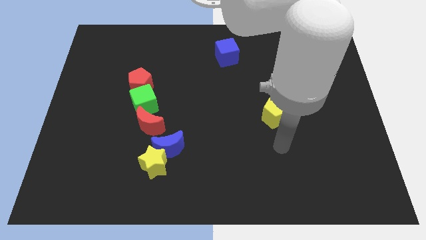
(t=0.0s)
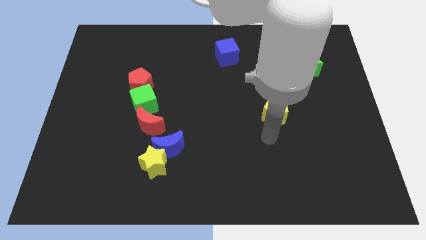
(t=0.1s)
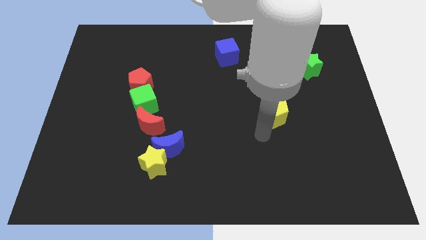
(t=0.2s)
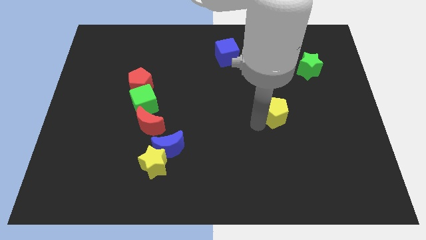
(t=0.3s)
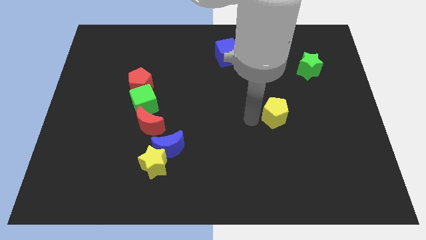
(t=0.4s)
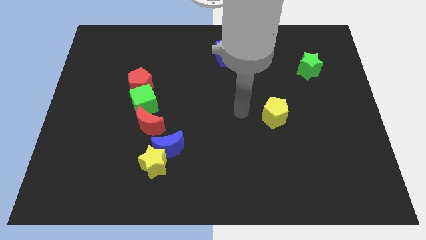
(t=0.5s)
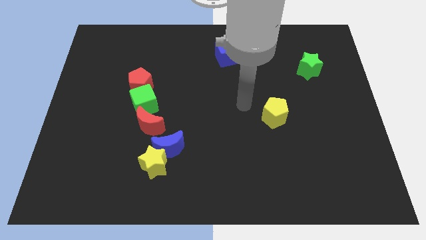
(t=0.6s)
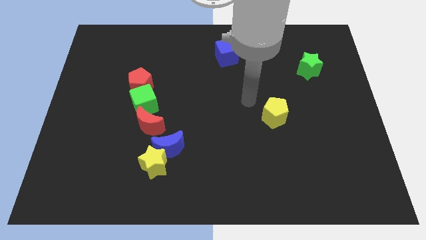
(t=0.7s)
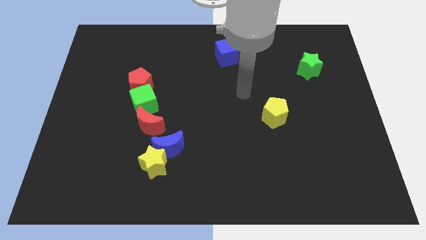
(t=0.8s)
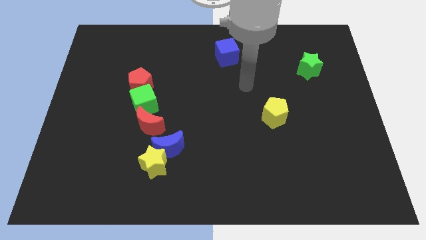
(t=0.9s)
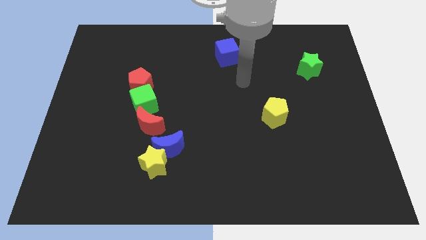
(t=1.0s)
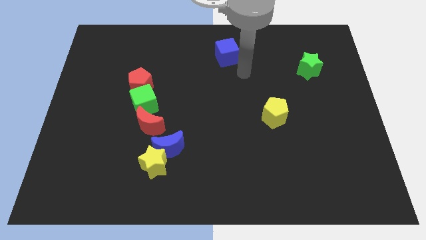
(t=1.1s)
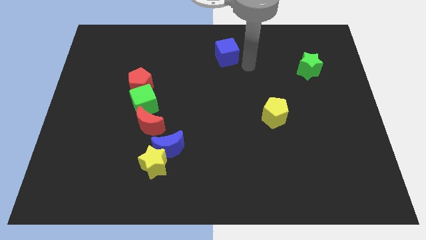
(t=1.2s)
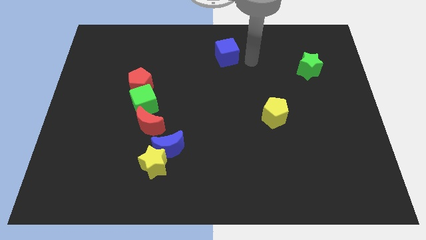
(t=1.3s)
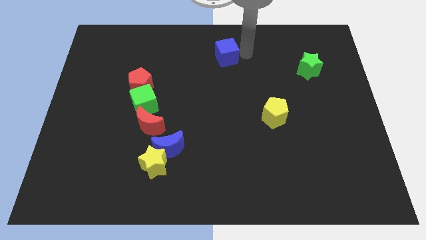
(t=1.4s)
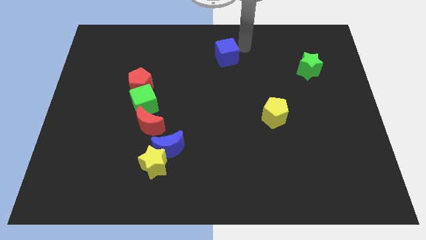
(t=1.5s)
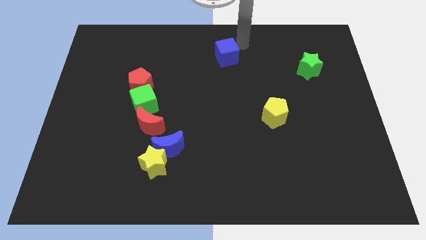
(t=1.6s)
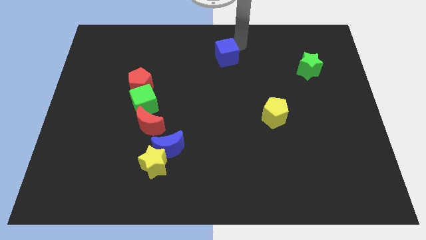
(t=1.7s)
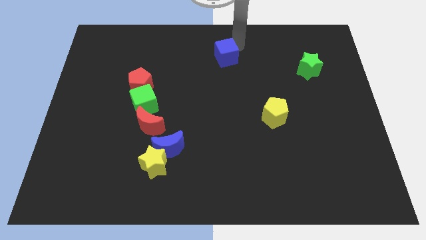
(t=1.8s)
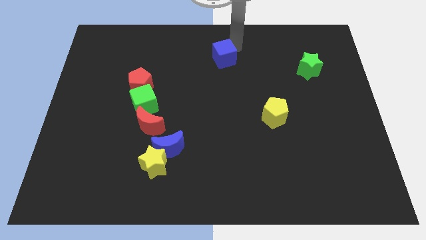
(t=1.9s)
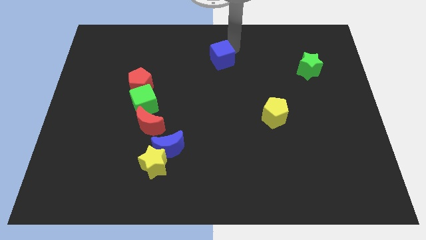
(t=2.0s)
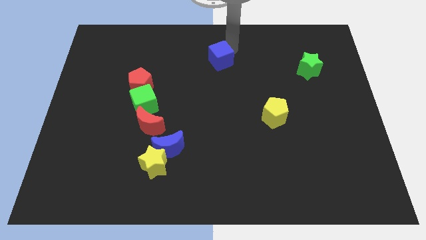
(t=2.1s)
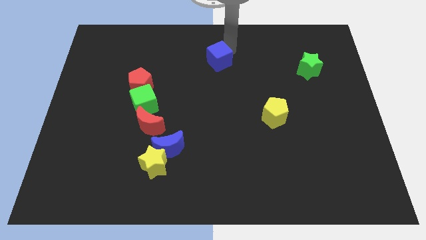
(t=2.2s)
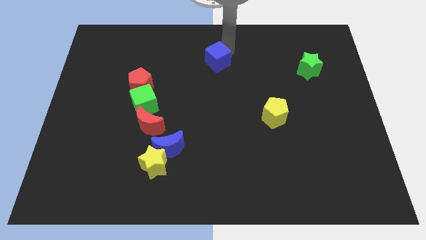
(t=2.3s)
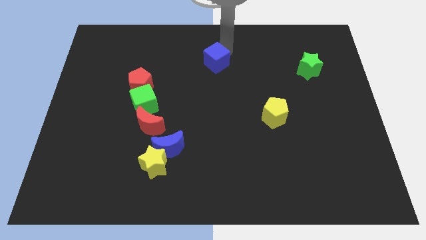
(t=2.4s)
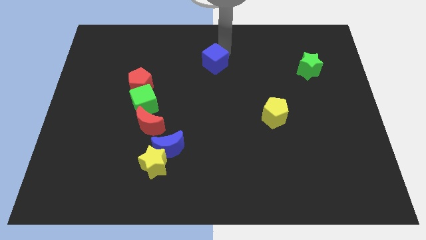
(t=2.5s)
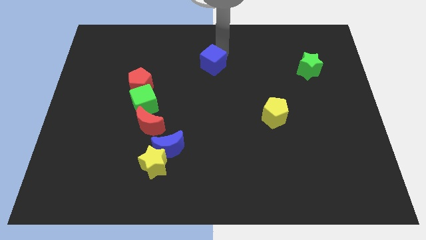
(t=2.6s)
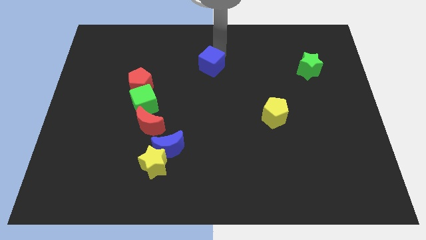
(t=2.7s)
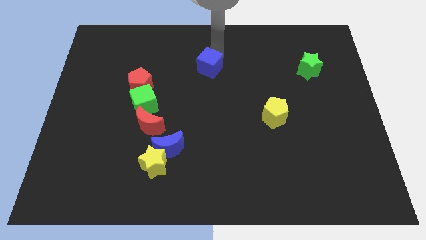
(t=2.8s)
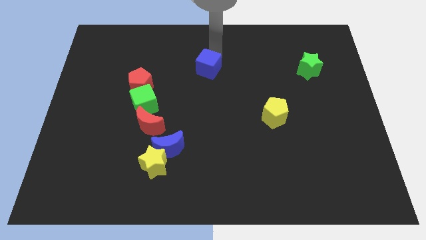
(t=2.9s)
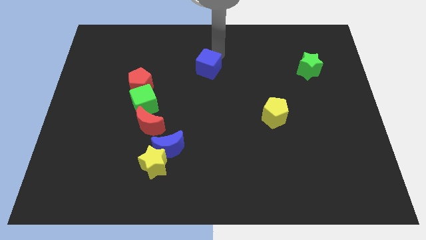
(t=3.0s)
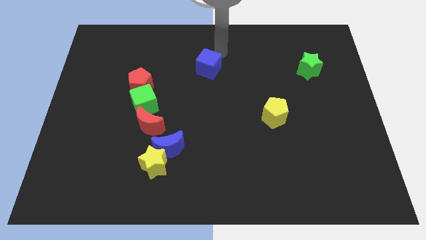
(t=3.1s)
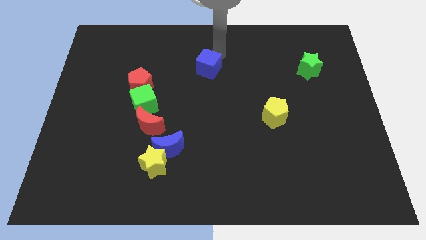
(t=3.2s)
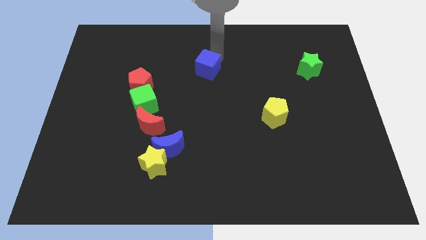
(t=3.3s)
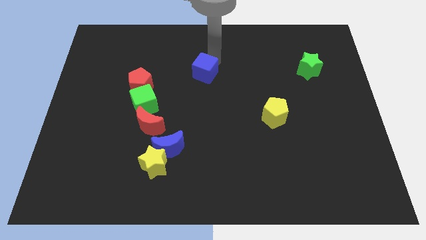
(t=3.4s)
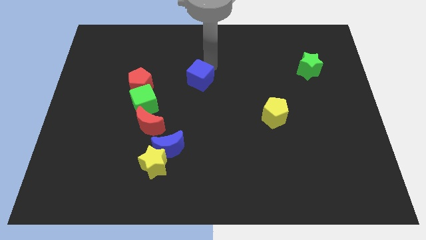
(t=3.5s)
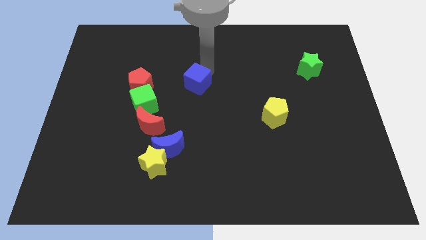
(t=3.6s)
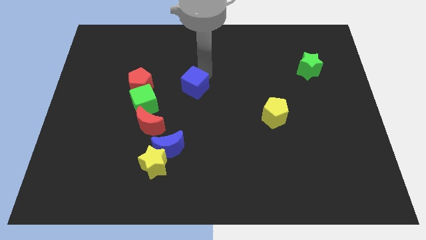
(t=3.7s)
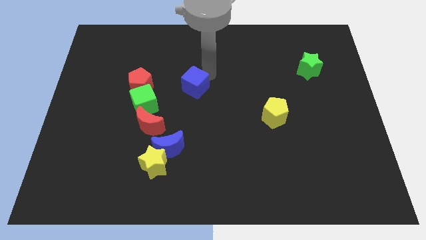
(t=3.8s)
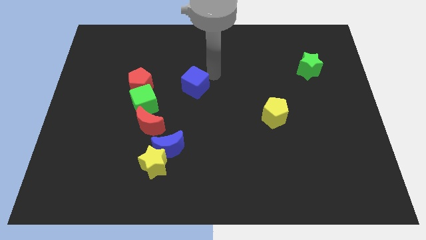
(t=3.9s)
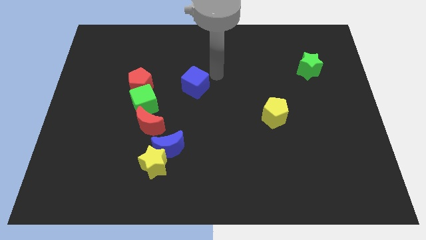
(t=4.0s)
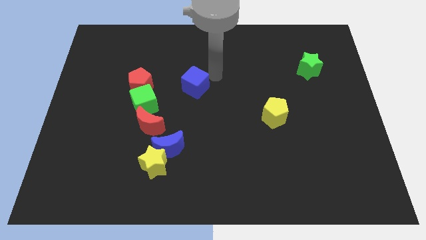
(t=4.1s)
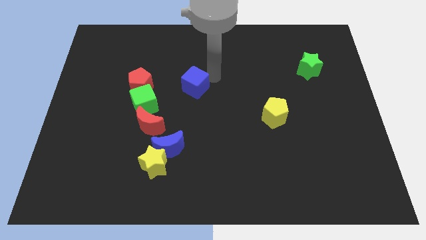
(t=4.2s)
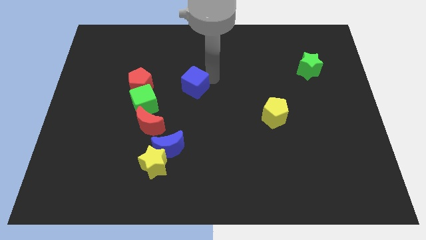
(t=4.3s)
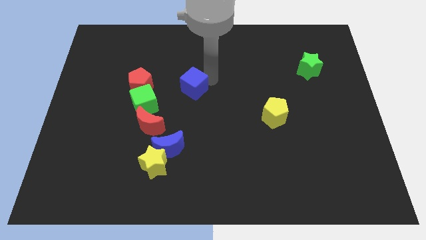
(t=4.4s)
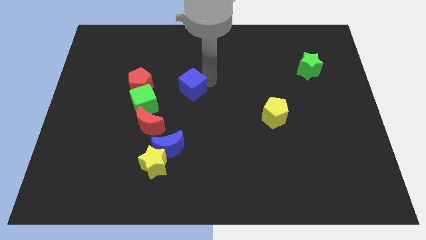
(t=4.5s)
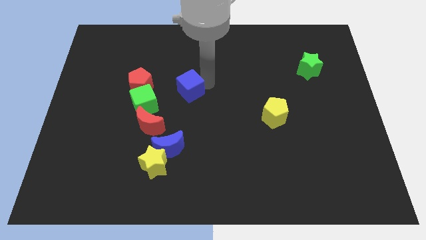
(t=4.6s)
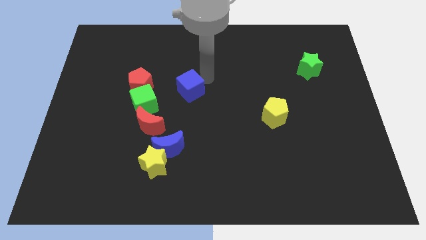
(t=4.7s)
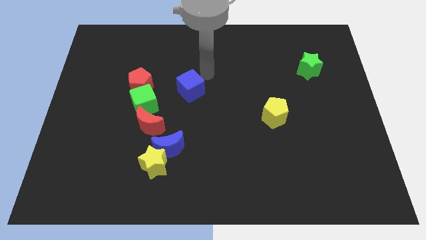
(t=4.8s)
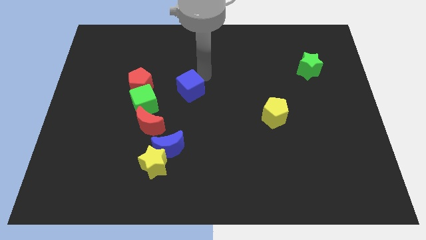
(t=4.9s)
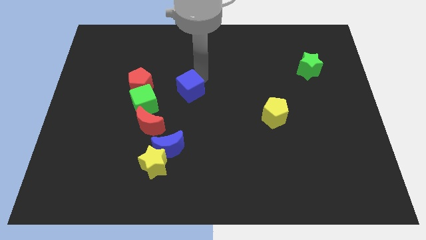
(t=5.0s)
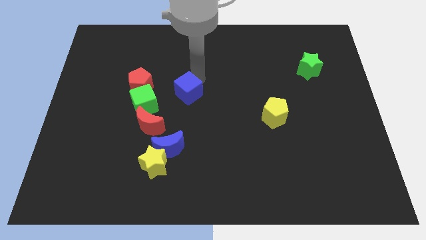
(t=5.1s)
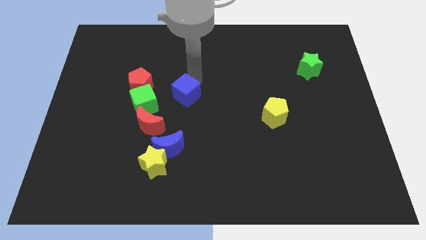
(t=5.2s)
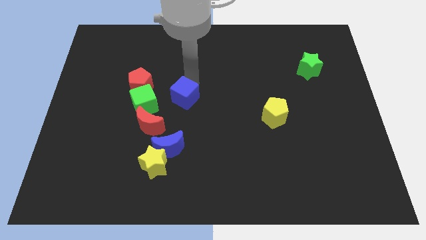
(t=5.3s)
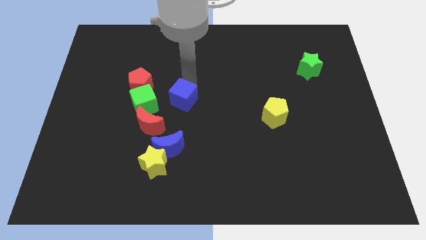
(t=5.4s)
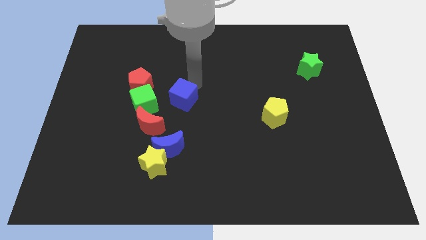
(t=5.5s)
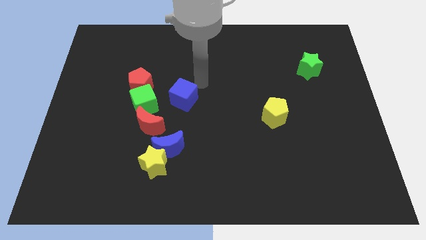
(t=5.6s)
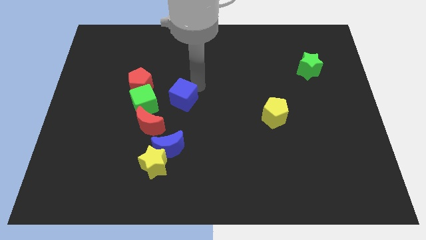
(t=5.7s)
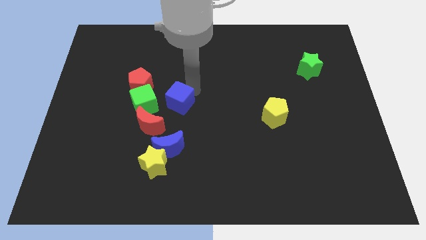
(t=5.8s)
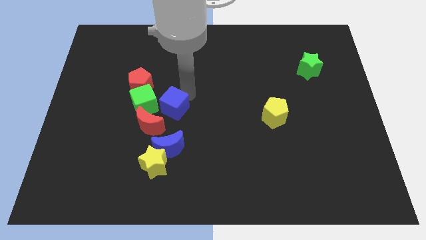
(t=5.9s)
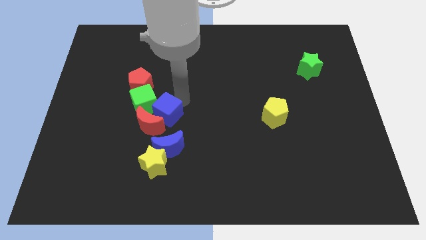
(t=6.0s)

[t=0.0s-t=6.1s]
move the blue cube to the red moon

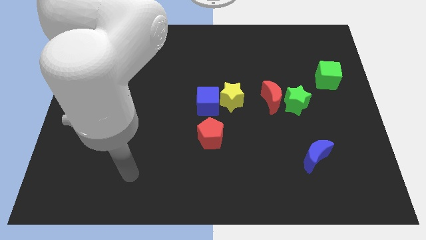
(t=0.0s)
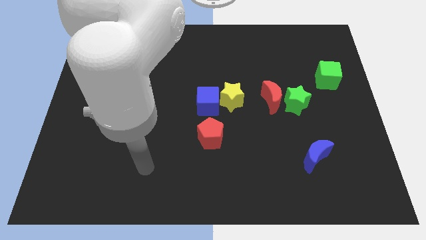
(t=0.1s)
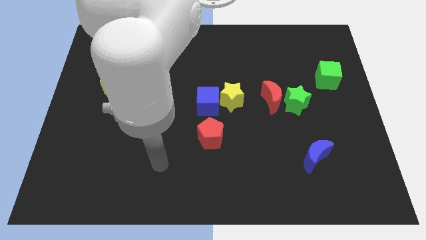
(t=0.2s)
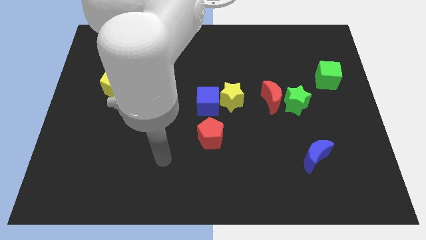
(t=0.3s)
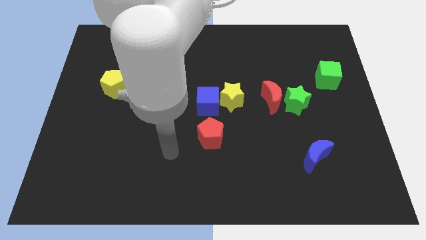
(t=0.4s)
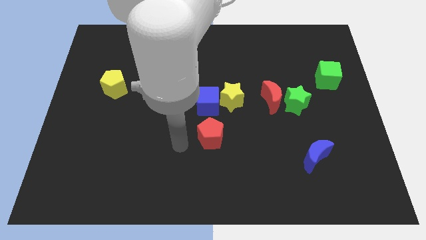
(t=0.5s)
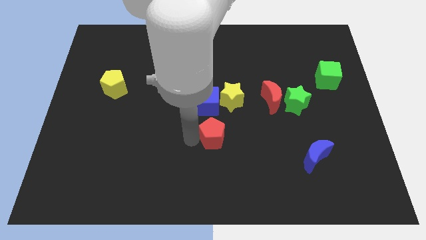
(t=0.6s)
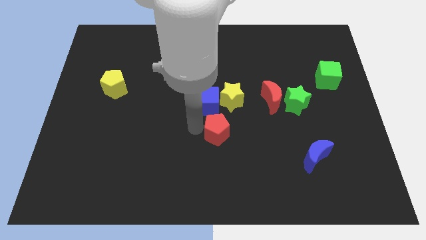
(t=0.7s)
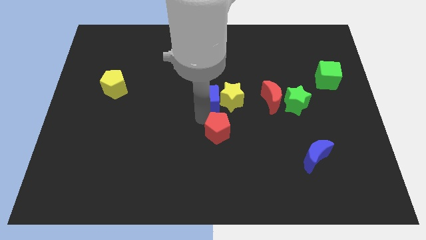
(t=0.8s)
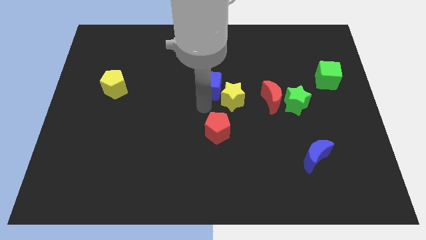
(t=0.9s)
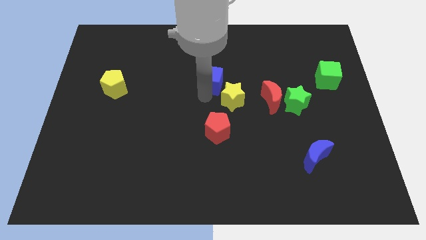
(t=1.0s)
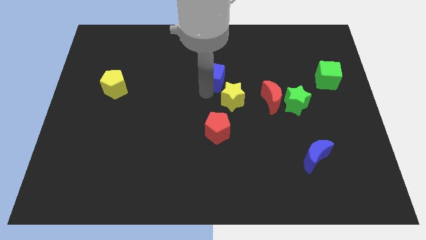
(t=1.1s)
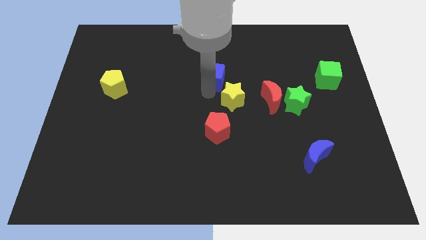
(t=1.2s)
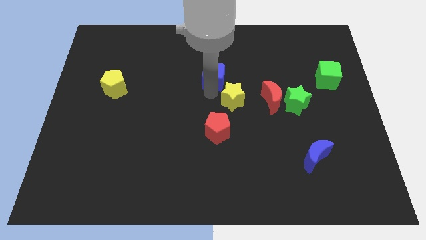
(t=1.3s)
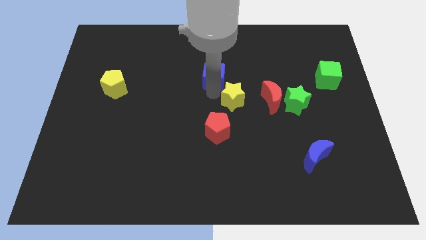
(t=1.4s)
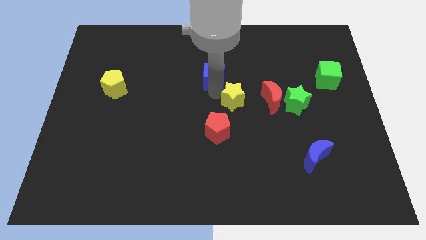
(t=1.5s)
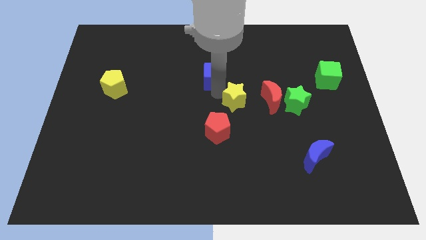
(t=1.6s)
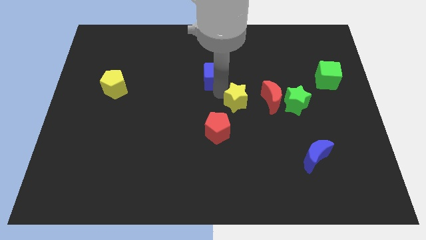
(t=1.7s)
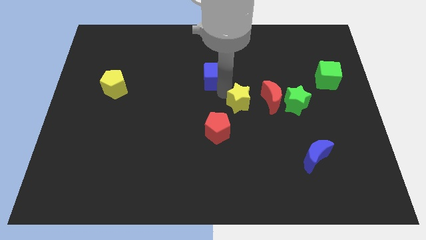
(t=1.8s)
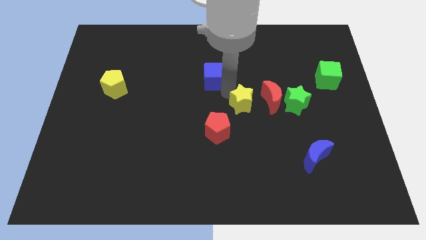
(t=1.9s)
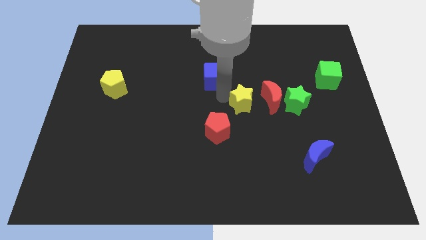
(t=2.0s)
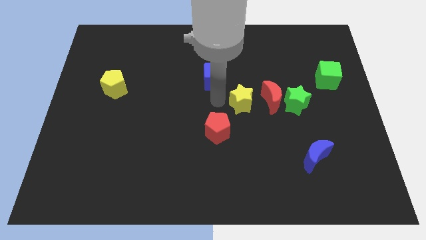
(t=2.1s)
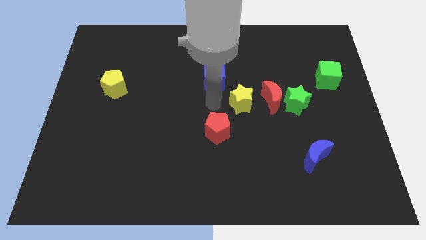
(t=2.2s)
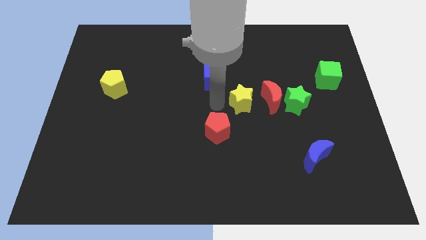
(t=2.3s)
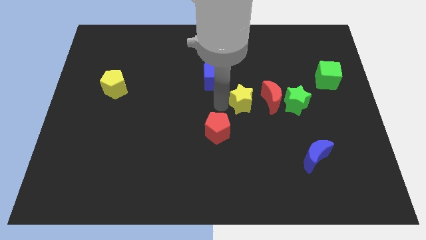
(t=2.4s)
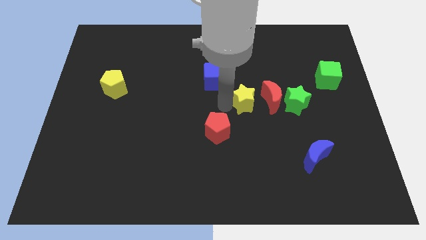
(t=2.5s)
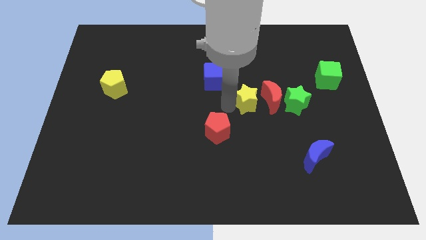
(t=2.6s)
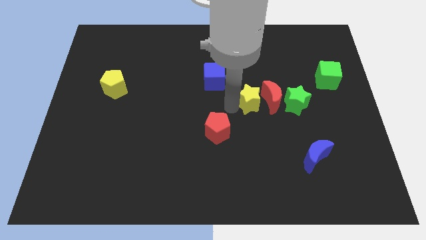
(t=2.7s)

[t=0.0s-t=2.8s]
push the yellow star next to the red moon
